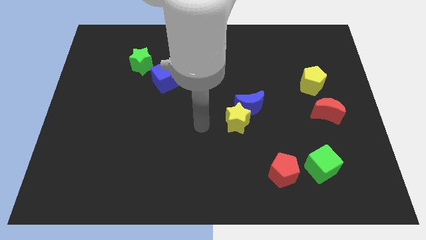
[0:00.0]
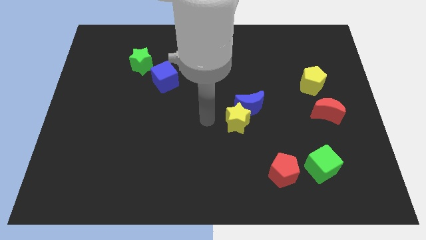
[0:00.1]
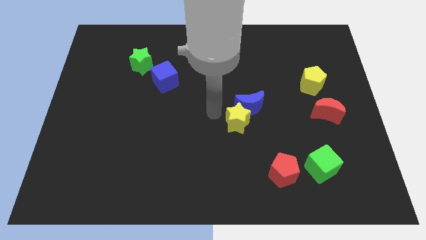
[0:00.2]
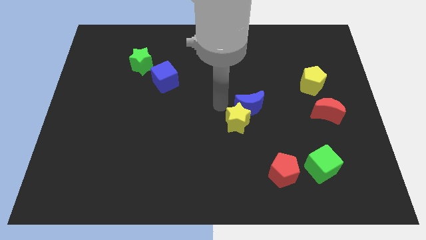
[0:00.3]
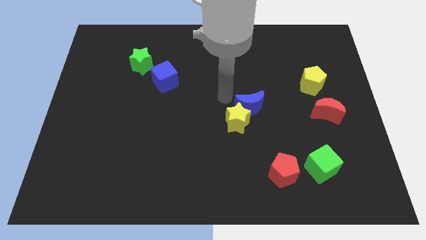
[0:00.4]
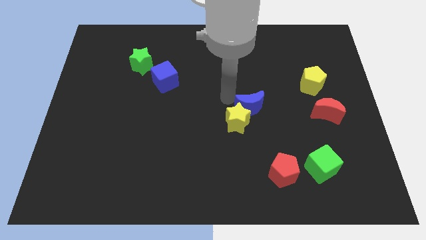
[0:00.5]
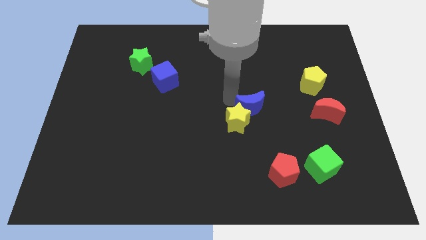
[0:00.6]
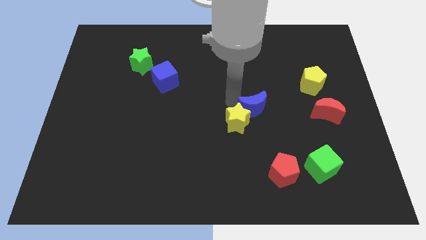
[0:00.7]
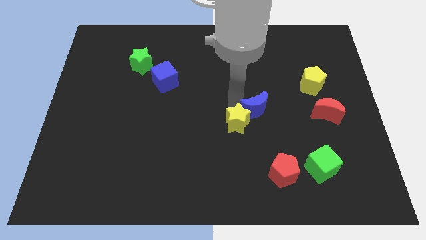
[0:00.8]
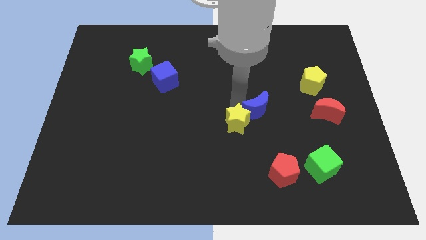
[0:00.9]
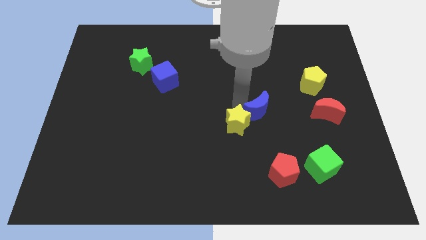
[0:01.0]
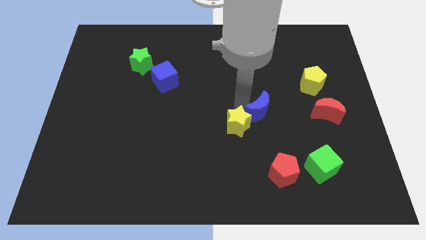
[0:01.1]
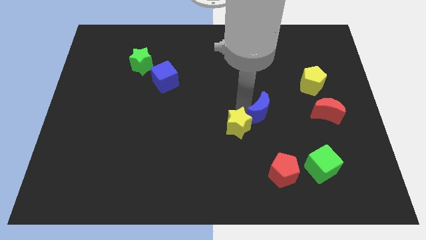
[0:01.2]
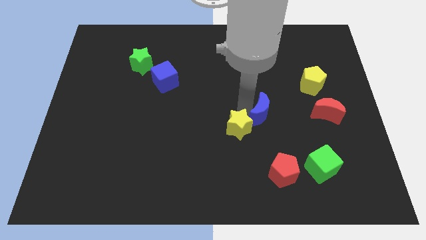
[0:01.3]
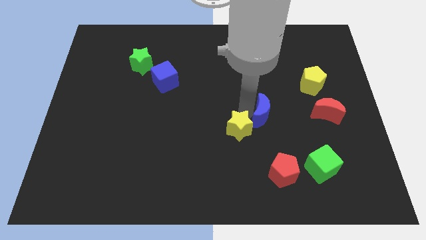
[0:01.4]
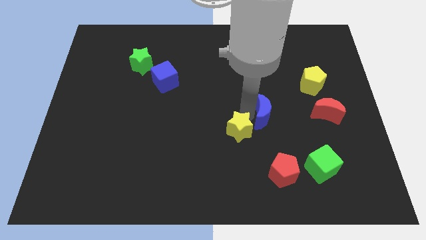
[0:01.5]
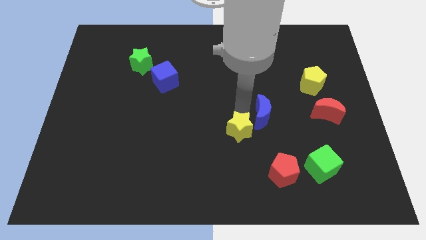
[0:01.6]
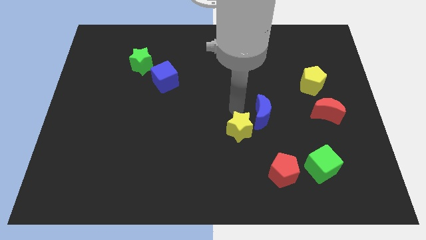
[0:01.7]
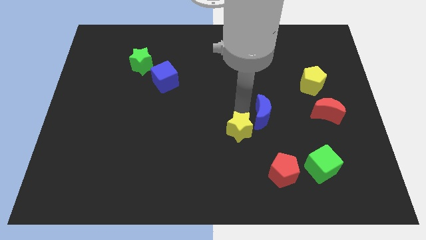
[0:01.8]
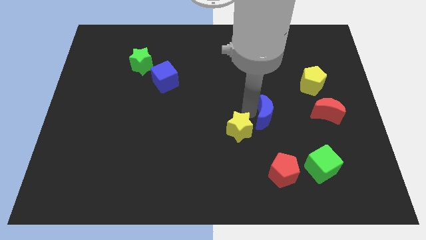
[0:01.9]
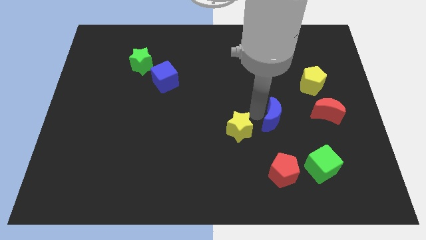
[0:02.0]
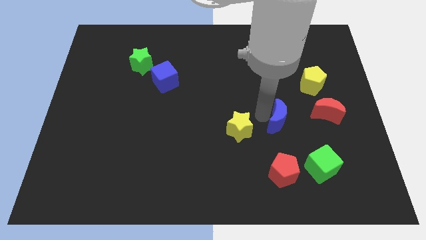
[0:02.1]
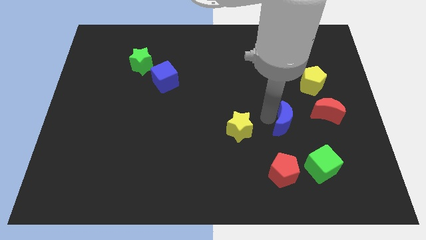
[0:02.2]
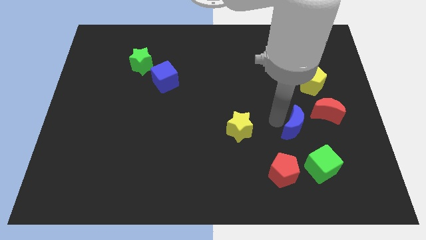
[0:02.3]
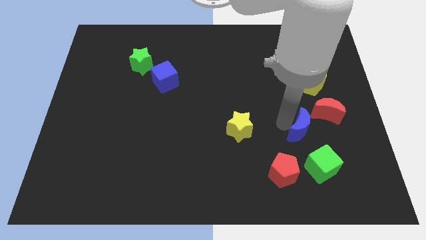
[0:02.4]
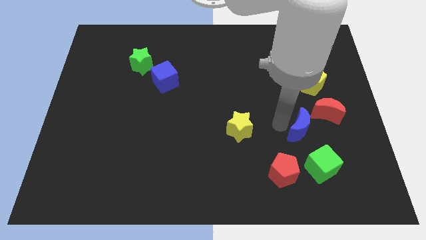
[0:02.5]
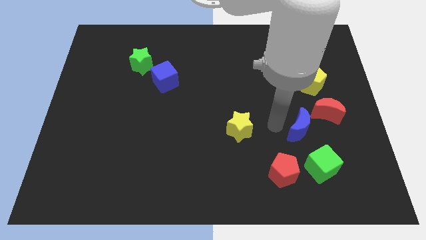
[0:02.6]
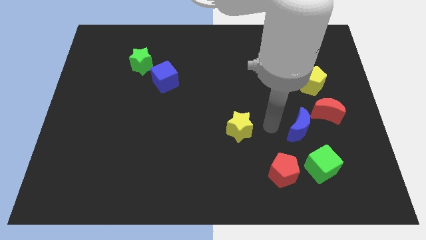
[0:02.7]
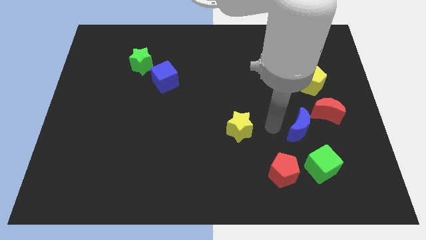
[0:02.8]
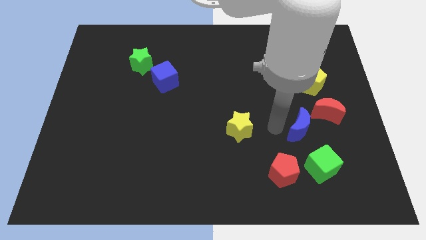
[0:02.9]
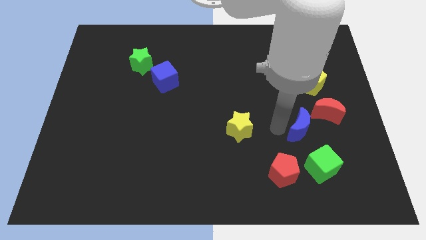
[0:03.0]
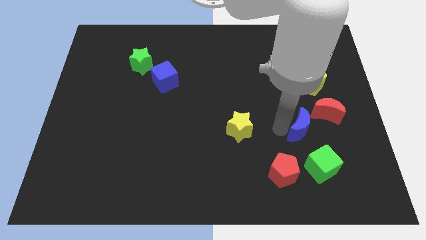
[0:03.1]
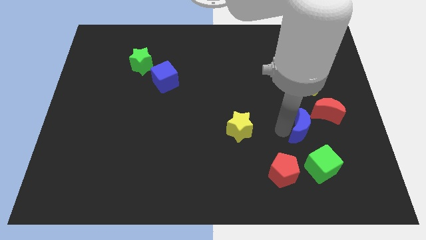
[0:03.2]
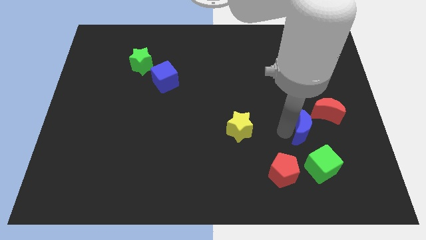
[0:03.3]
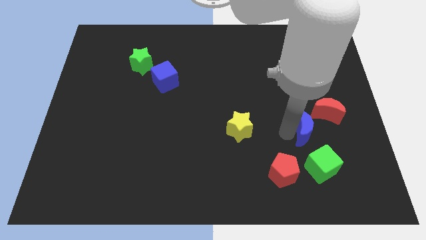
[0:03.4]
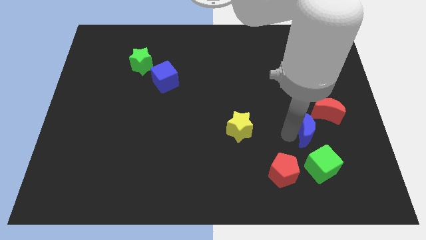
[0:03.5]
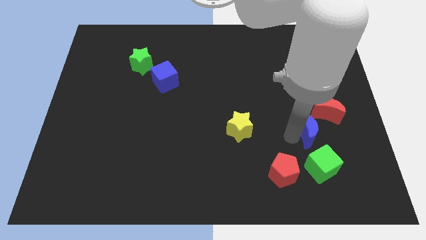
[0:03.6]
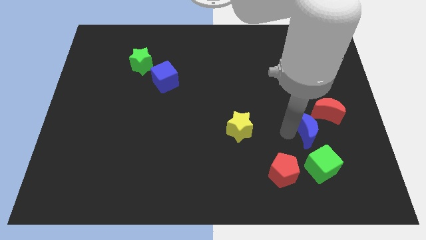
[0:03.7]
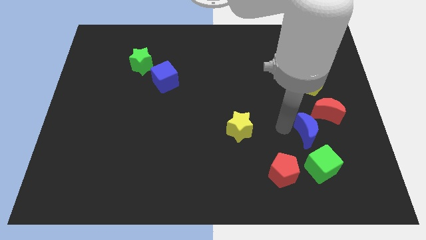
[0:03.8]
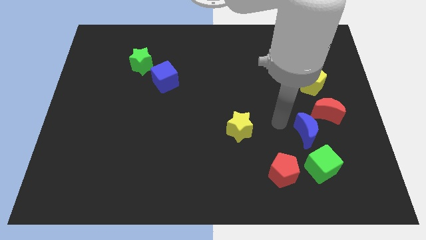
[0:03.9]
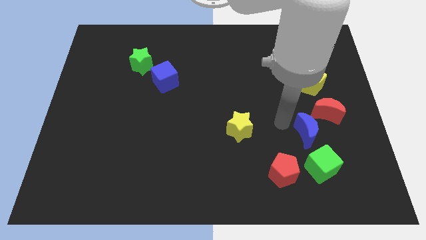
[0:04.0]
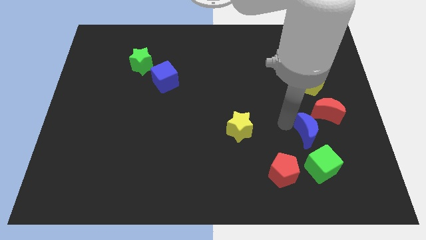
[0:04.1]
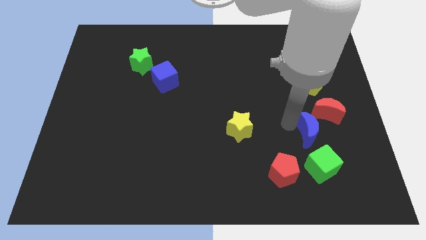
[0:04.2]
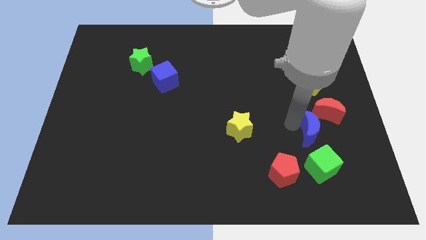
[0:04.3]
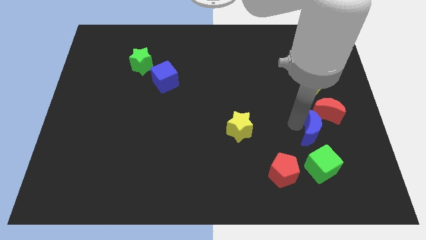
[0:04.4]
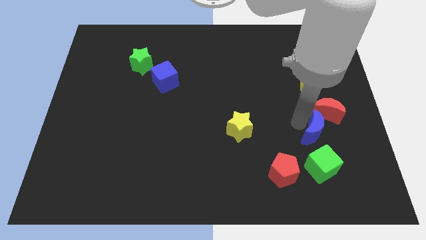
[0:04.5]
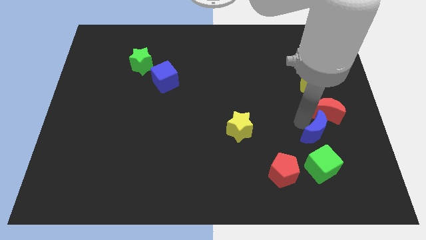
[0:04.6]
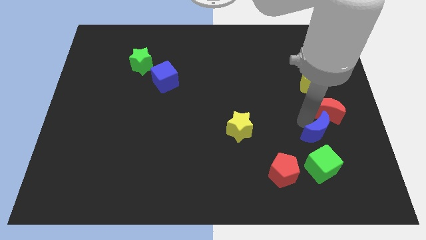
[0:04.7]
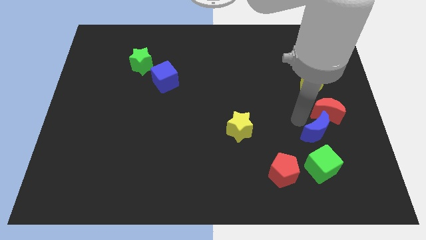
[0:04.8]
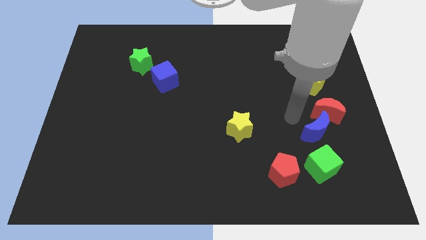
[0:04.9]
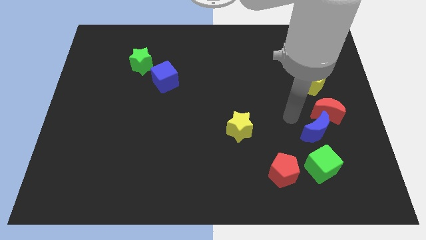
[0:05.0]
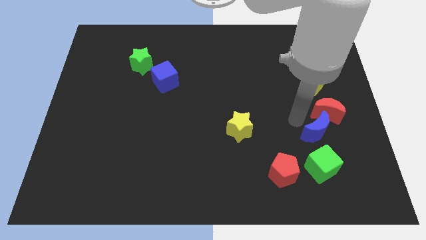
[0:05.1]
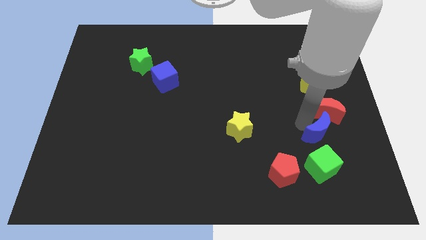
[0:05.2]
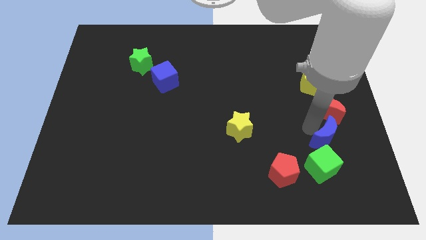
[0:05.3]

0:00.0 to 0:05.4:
move the blue moon to the top right of the green cube

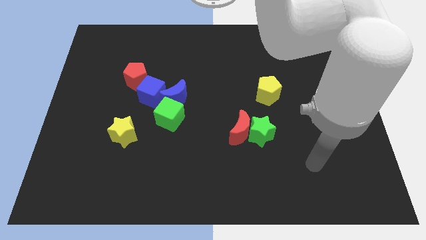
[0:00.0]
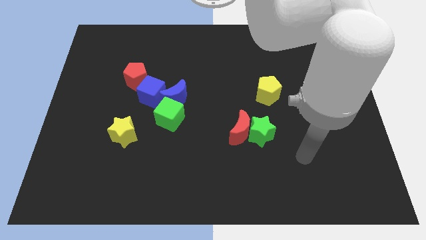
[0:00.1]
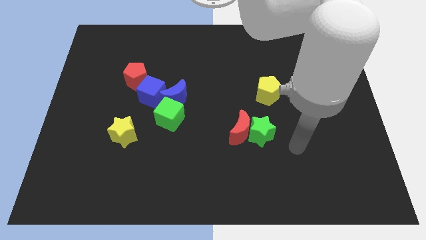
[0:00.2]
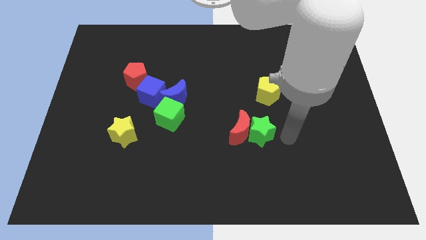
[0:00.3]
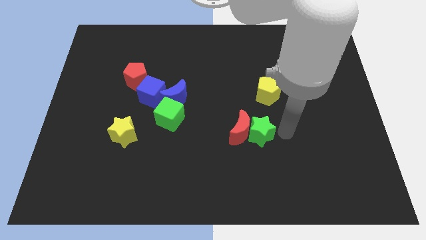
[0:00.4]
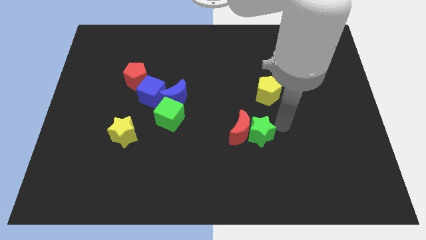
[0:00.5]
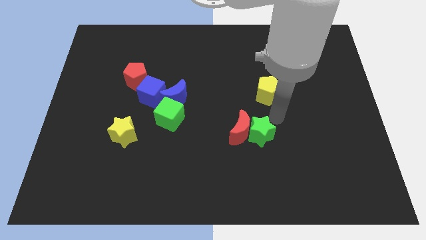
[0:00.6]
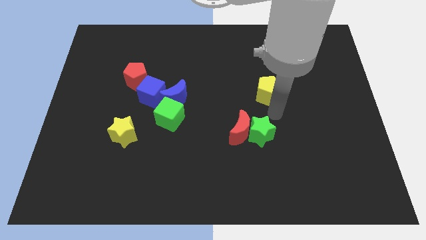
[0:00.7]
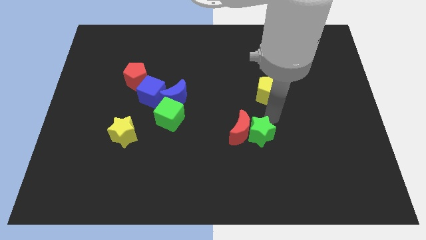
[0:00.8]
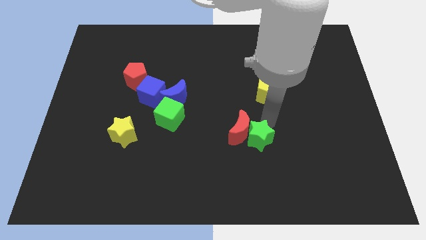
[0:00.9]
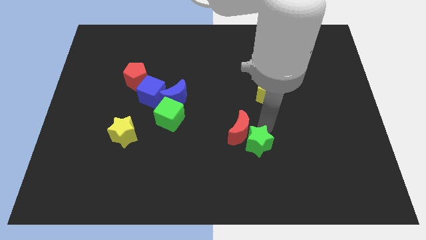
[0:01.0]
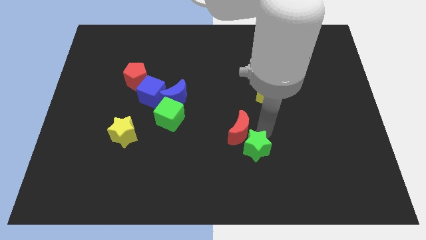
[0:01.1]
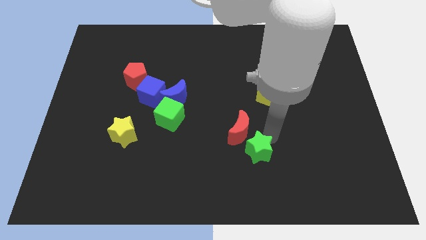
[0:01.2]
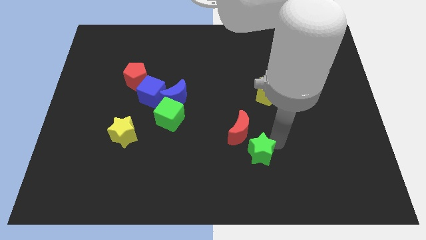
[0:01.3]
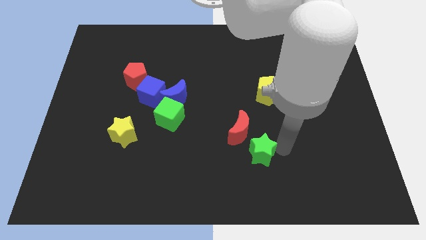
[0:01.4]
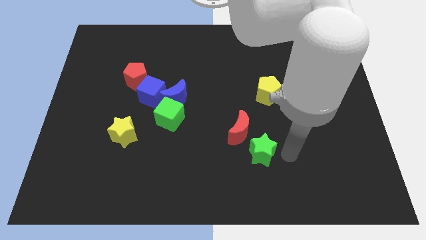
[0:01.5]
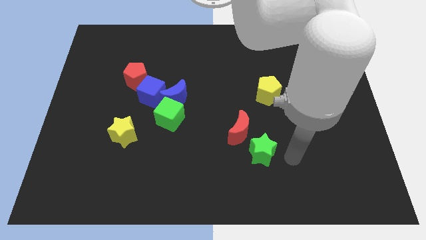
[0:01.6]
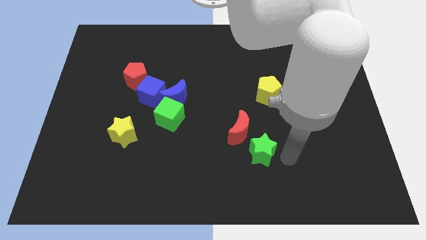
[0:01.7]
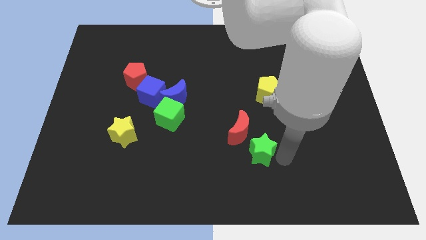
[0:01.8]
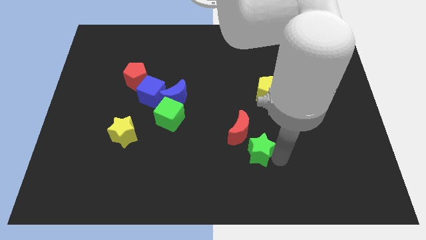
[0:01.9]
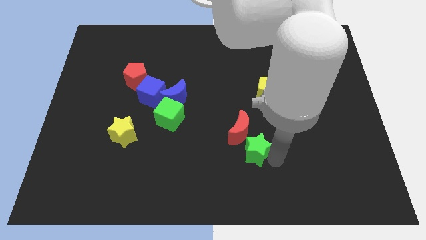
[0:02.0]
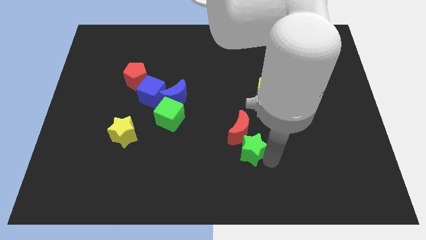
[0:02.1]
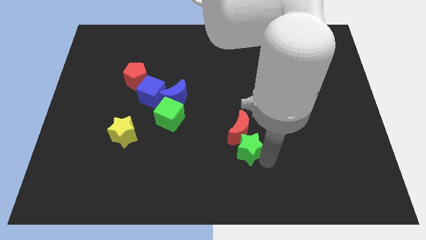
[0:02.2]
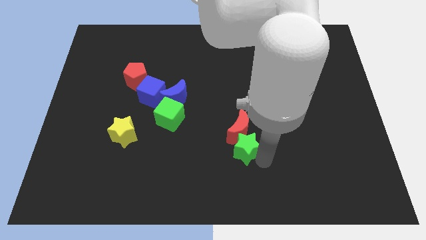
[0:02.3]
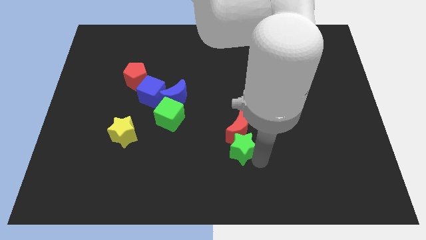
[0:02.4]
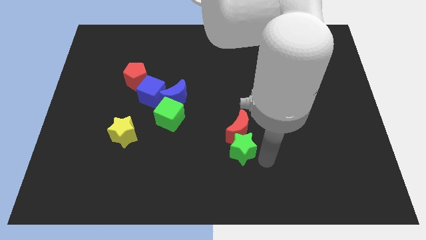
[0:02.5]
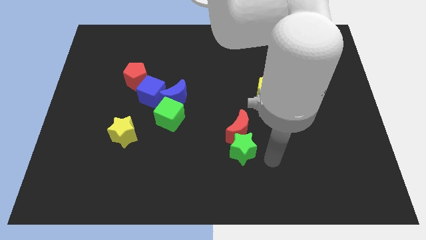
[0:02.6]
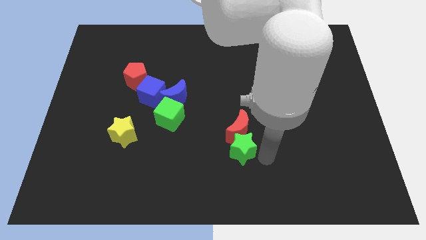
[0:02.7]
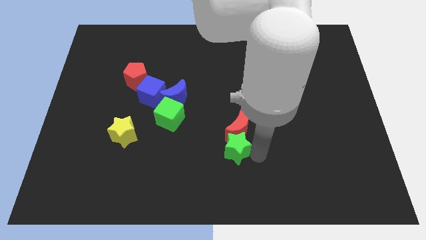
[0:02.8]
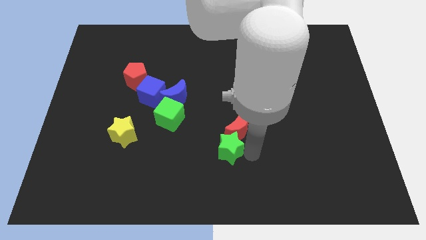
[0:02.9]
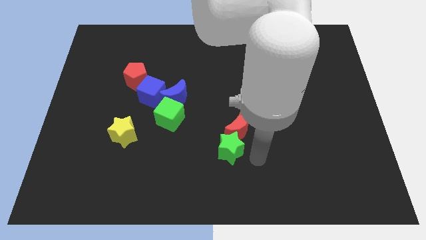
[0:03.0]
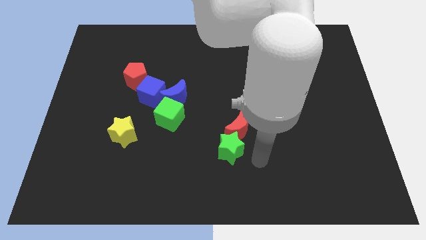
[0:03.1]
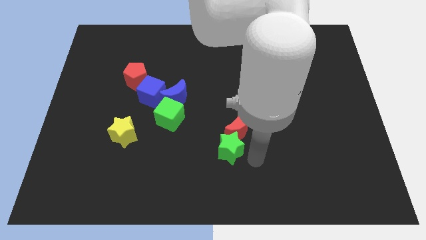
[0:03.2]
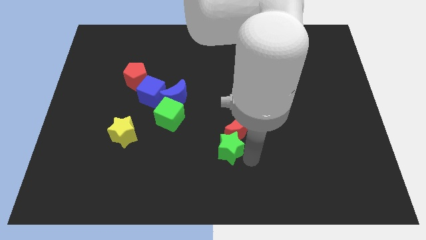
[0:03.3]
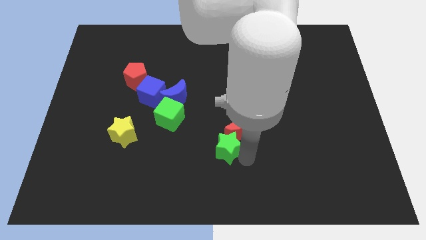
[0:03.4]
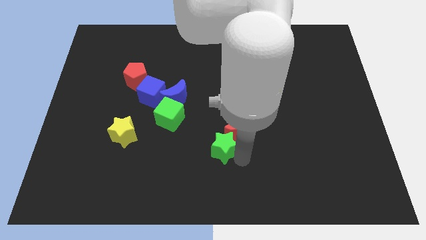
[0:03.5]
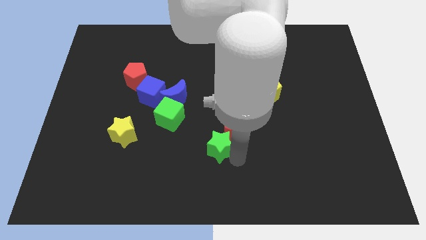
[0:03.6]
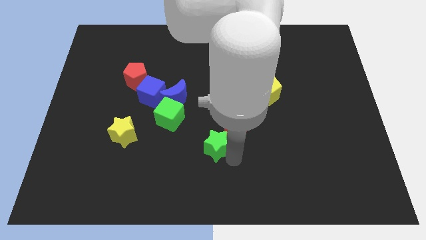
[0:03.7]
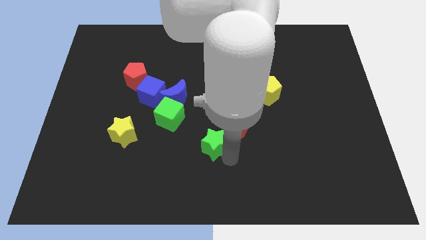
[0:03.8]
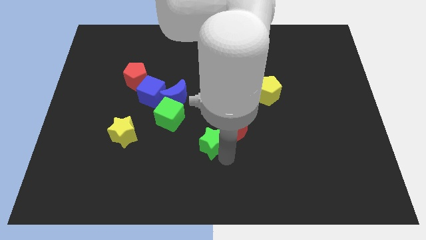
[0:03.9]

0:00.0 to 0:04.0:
move the green star to the bottom right side of the green cube
